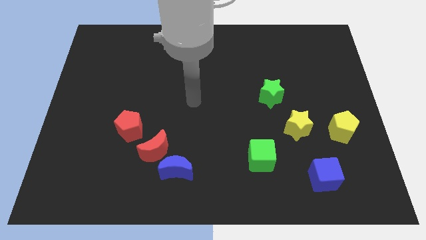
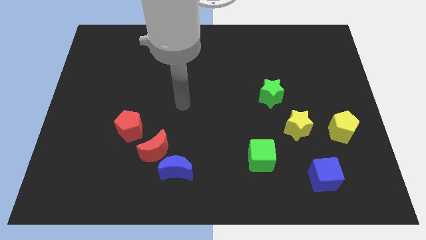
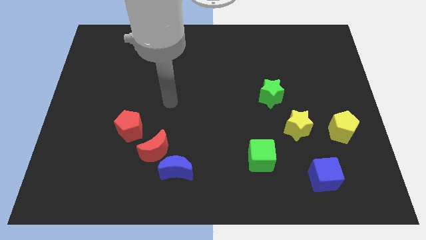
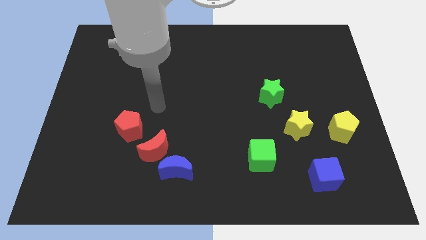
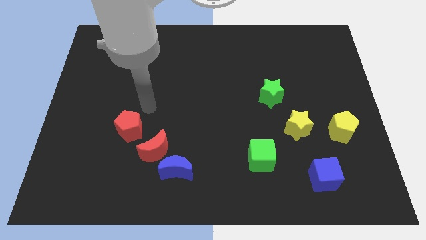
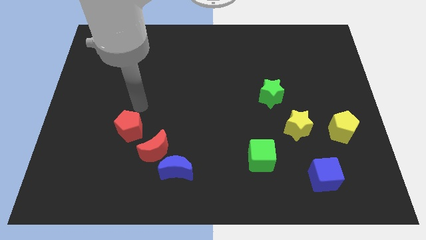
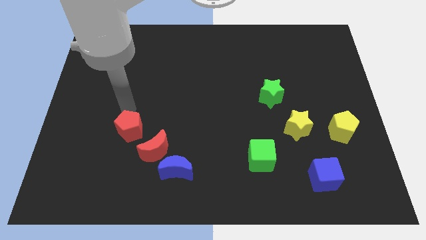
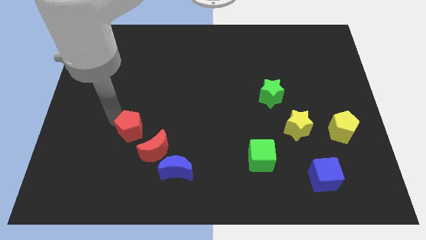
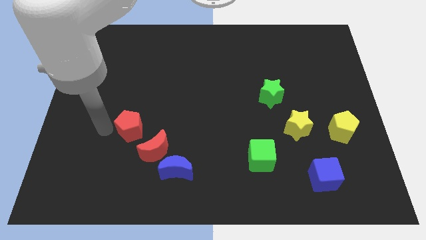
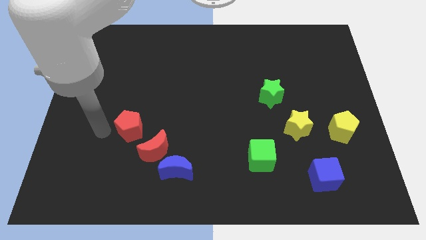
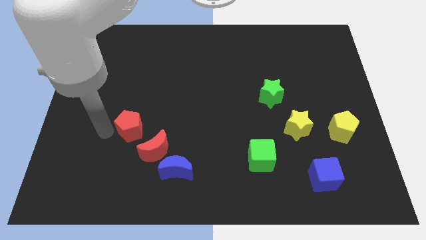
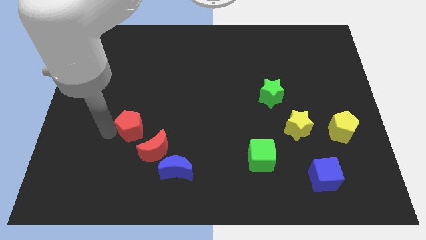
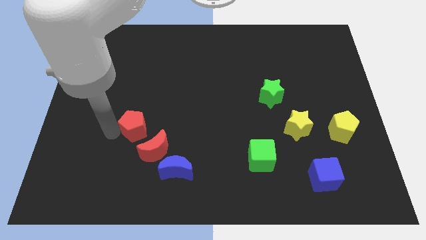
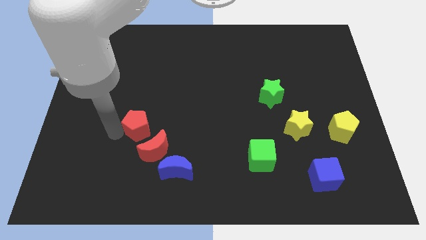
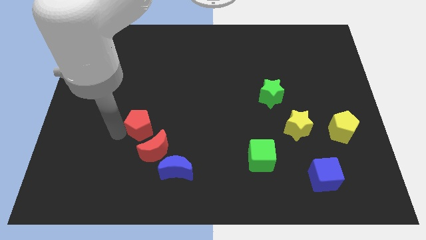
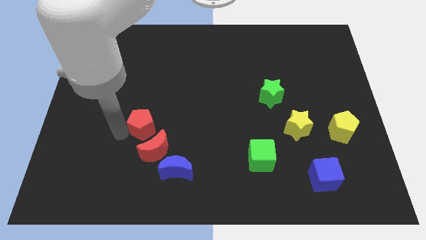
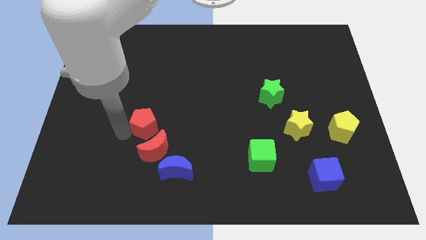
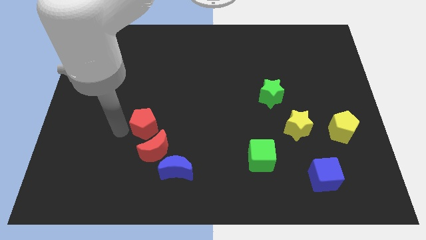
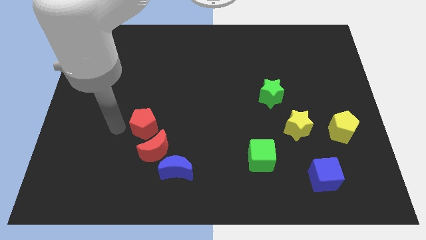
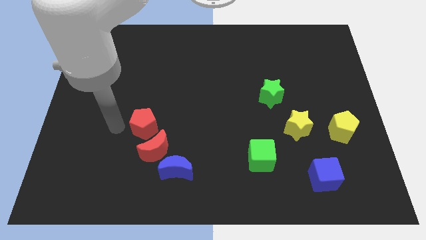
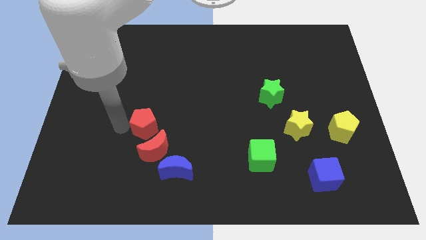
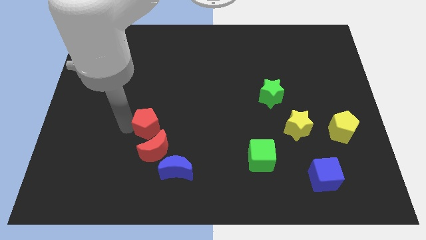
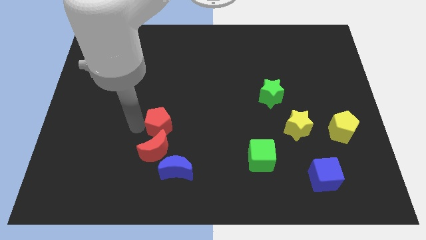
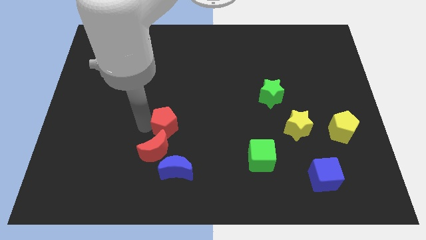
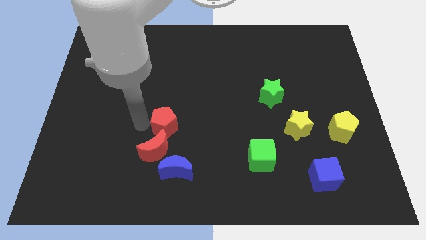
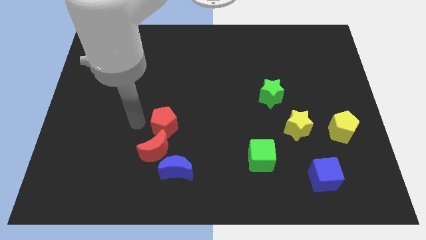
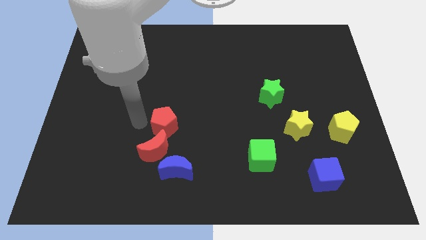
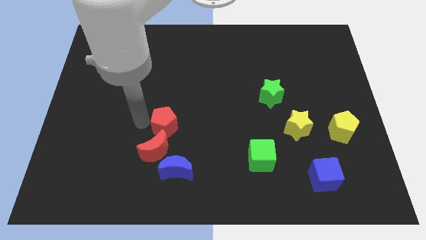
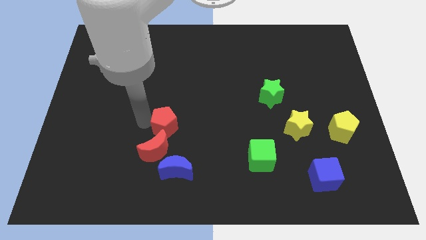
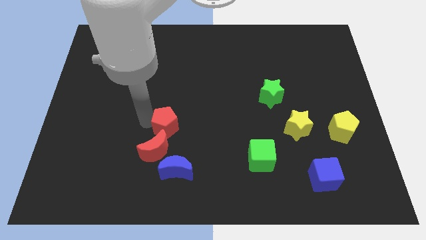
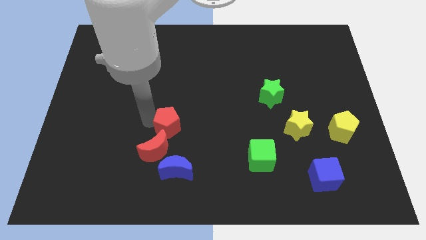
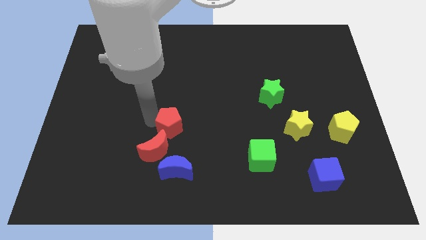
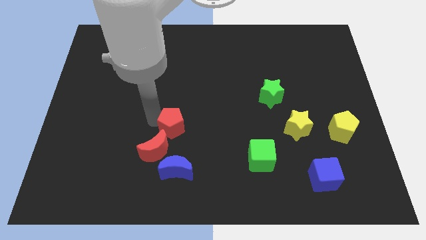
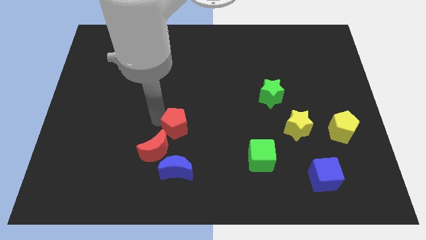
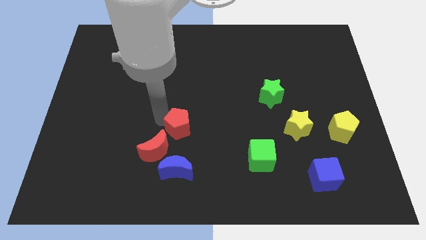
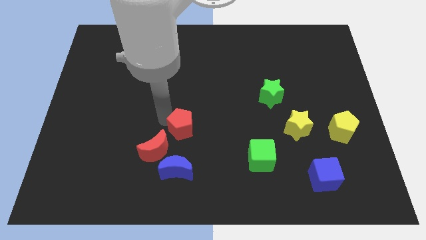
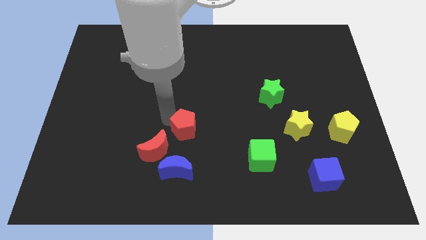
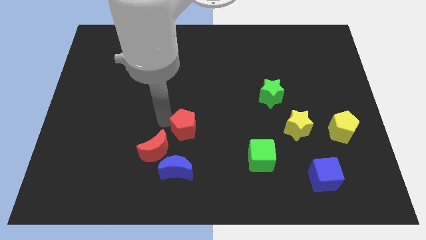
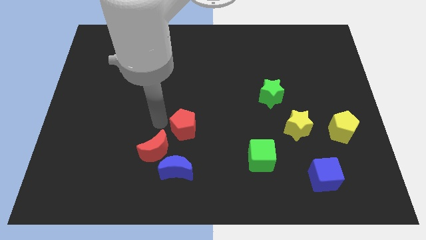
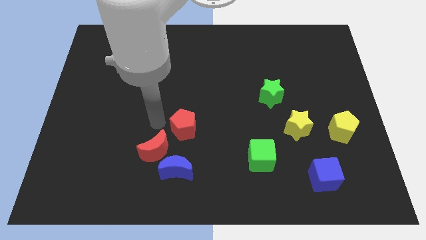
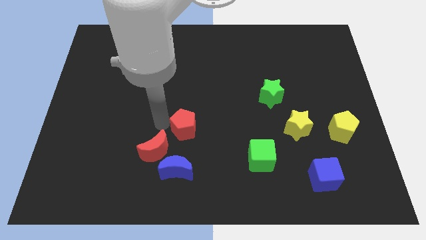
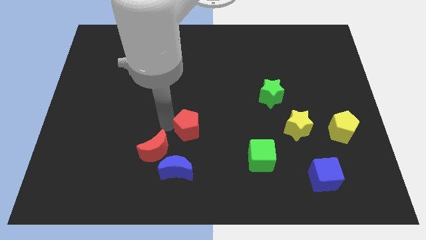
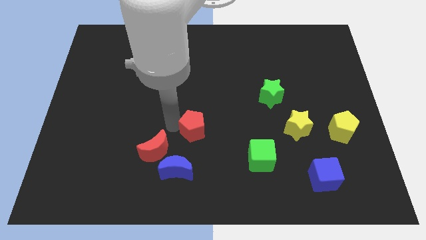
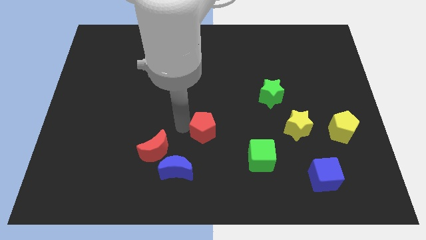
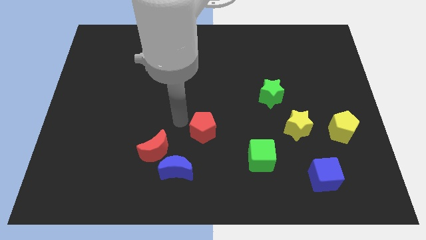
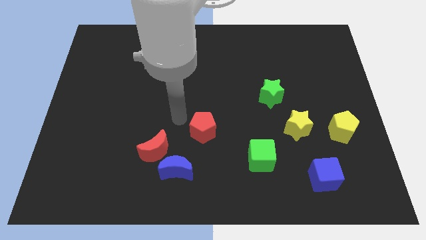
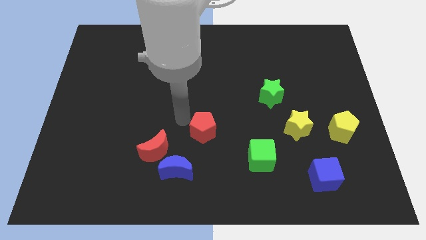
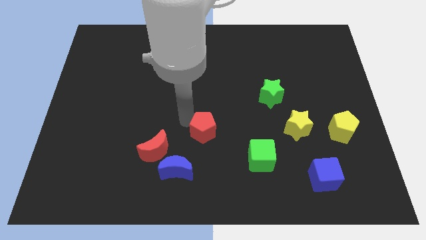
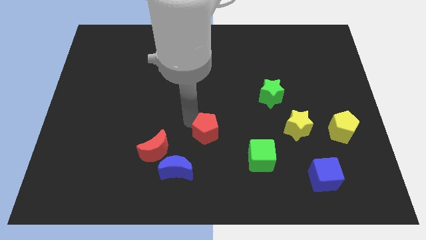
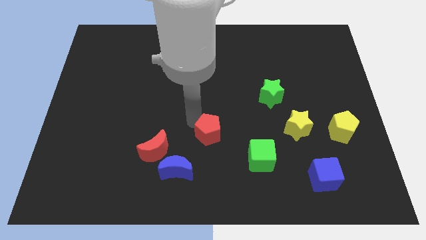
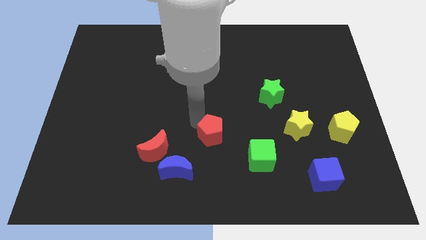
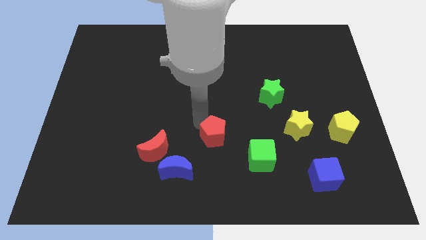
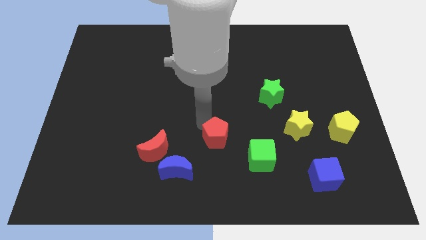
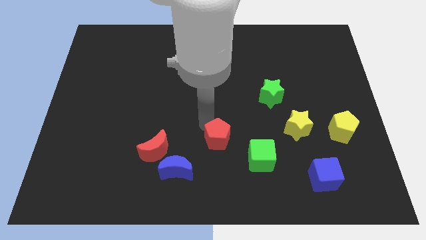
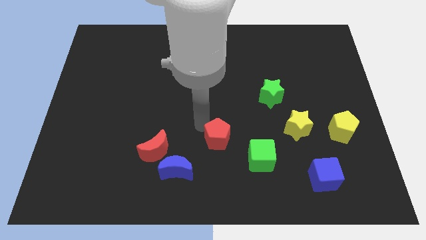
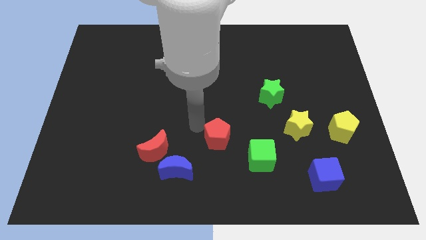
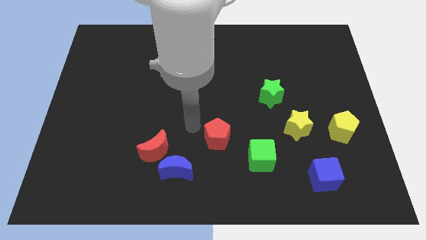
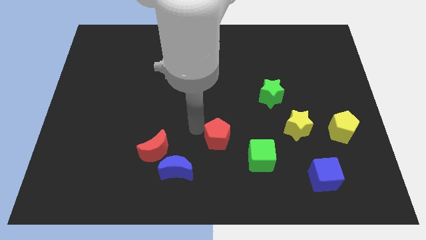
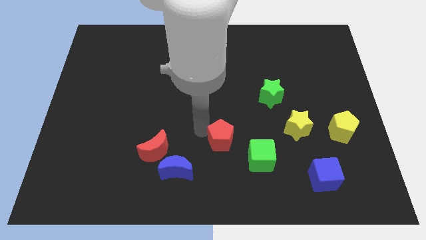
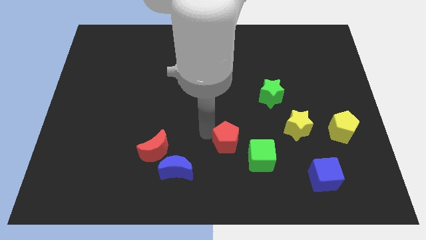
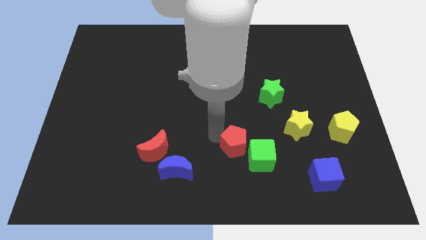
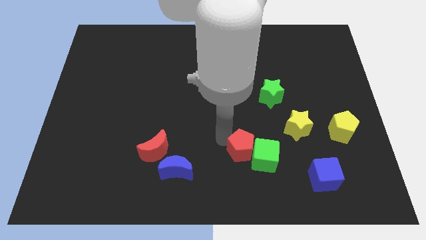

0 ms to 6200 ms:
push the red pentagon next to the green cube

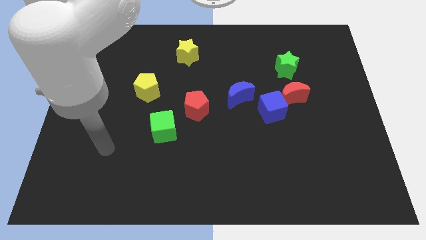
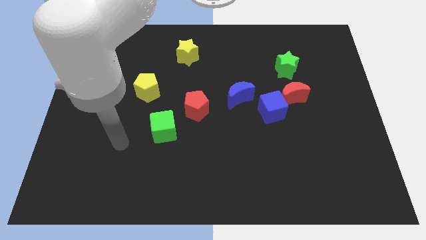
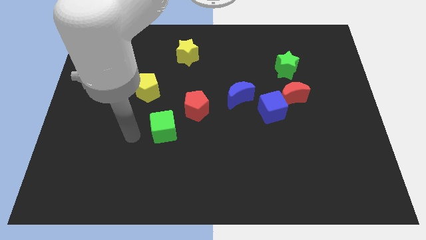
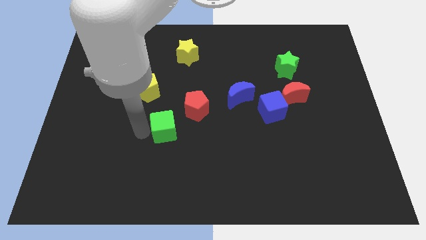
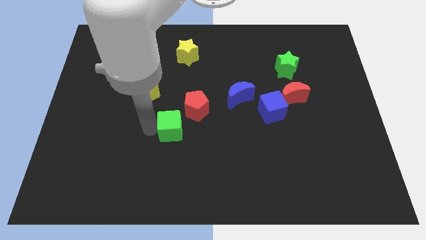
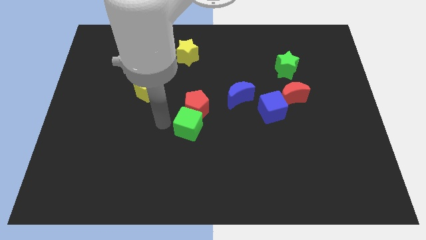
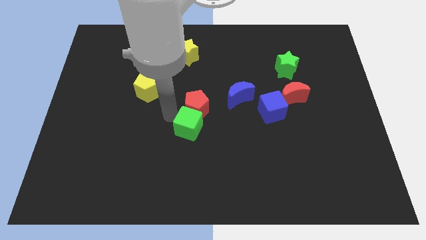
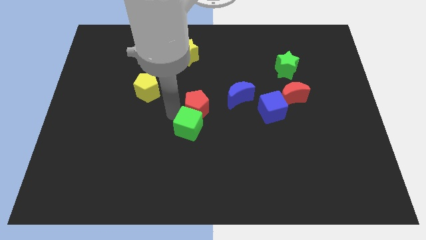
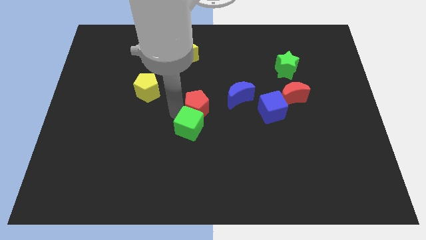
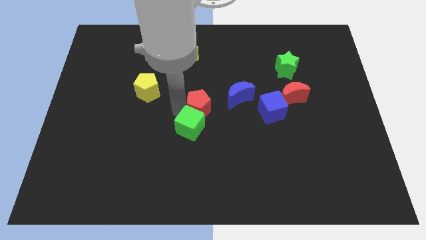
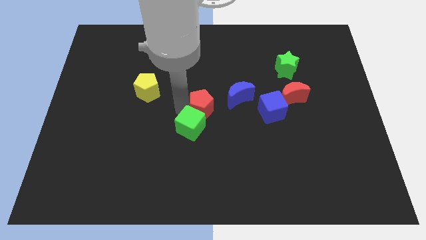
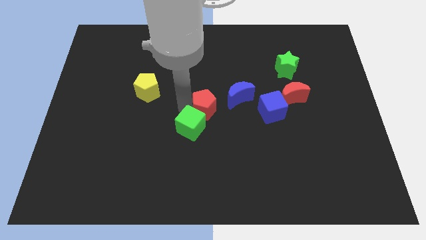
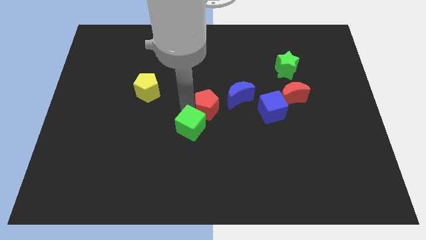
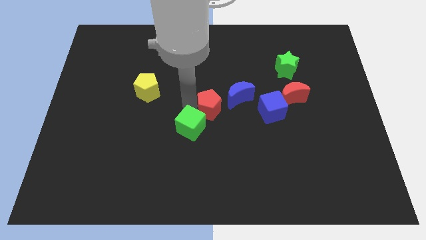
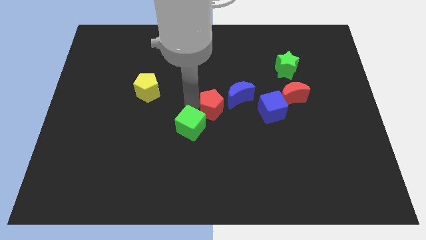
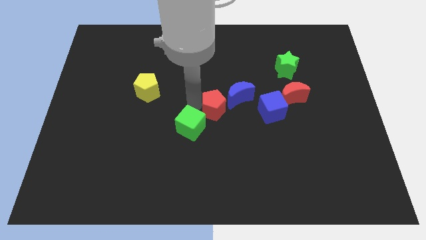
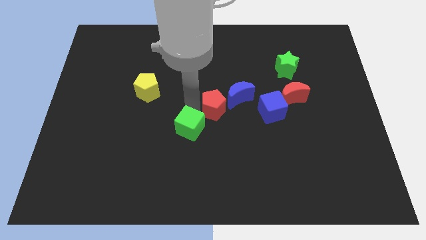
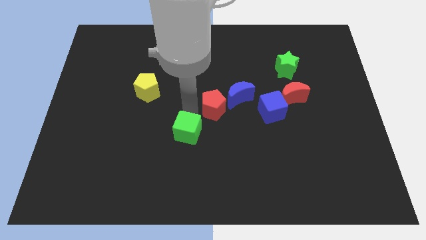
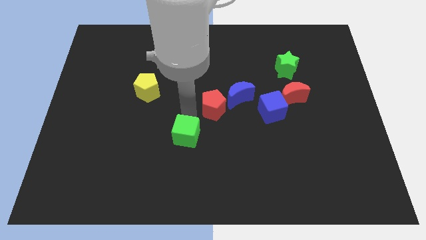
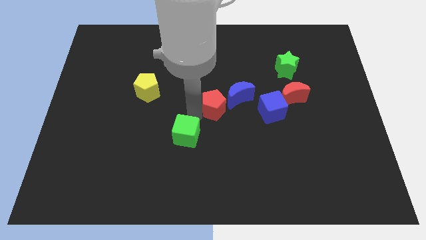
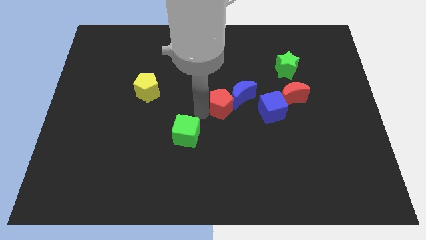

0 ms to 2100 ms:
move the red pentagon to the blue moon
